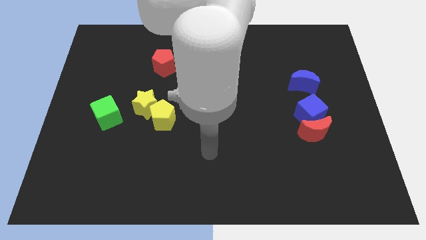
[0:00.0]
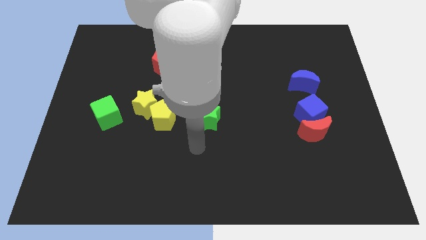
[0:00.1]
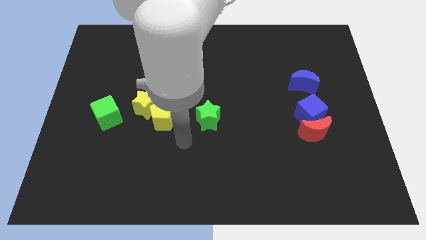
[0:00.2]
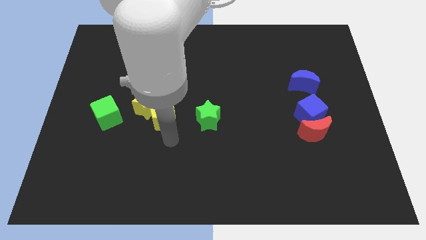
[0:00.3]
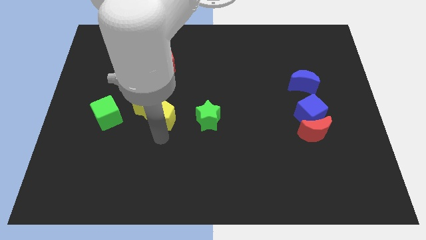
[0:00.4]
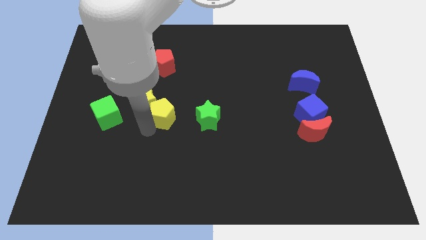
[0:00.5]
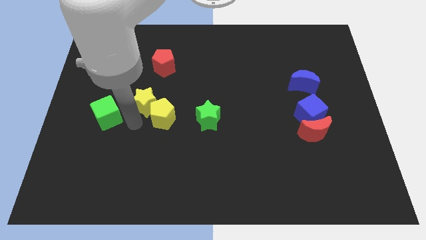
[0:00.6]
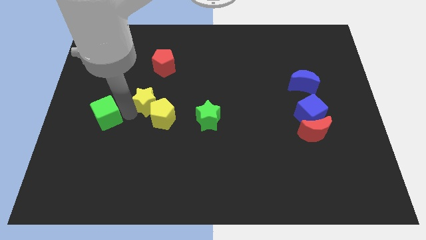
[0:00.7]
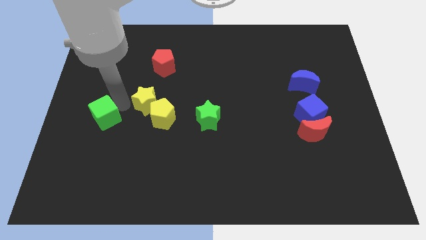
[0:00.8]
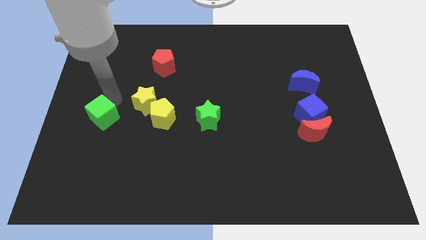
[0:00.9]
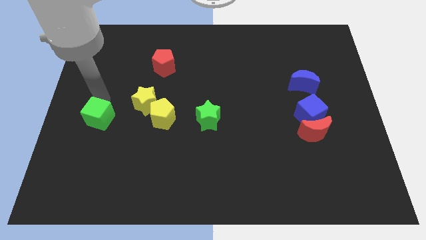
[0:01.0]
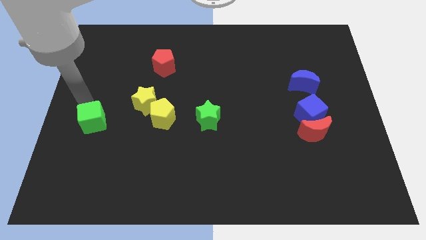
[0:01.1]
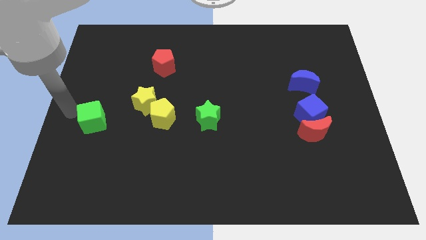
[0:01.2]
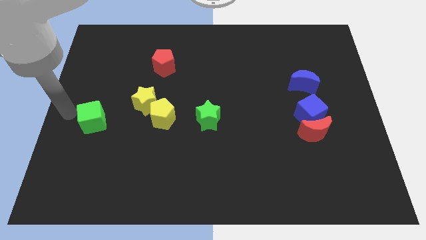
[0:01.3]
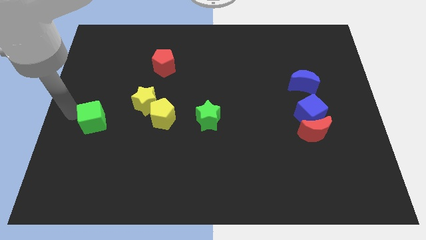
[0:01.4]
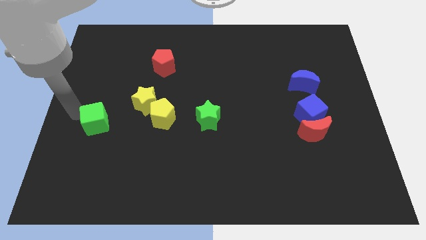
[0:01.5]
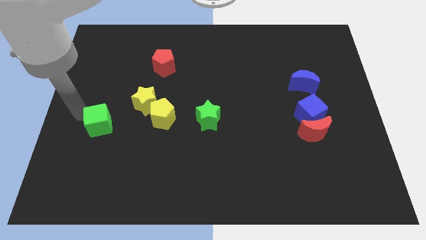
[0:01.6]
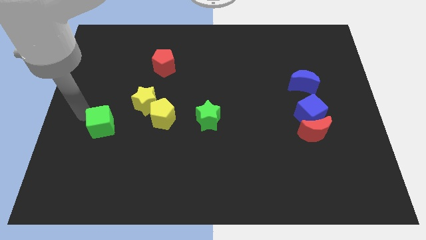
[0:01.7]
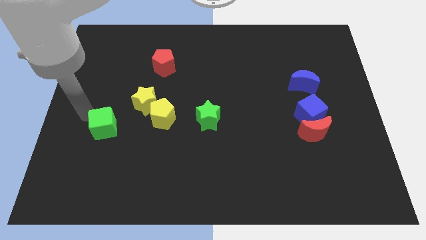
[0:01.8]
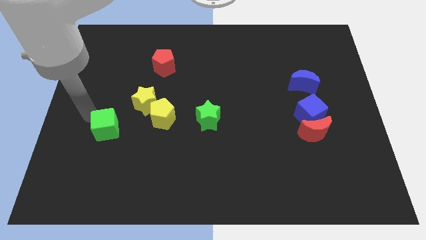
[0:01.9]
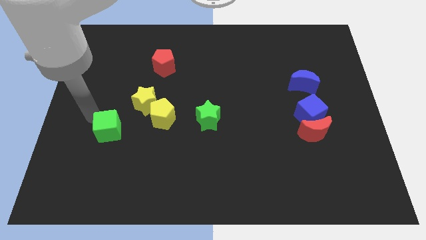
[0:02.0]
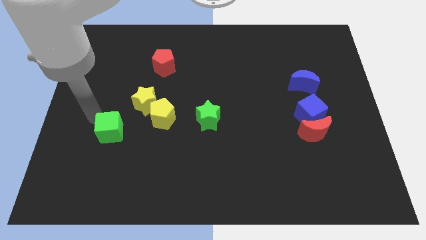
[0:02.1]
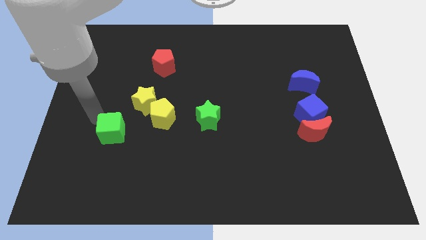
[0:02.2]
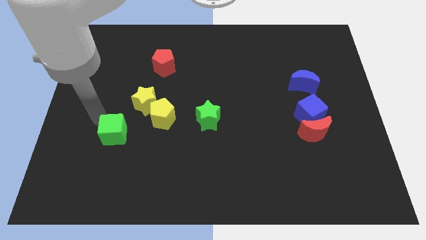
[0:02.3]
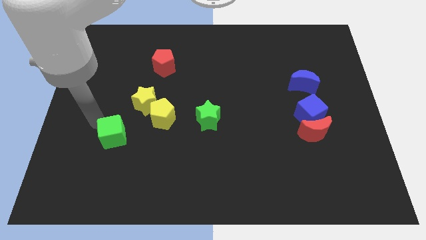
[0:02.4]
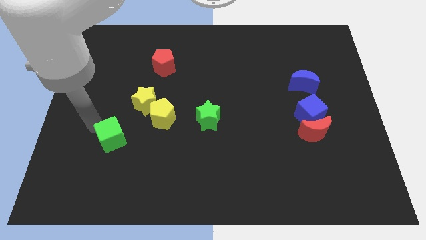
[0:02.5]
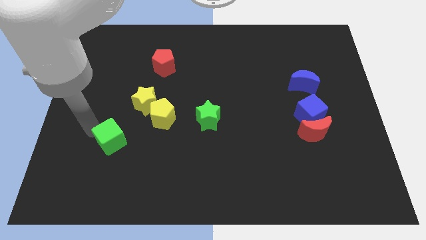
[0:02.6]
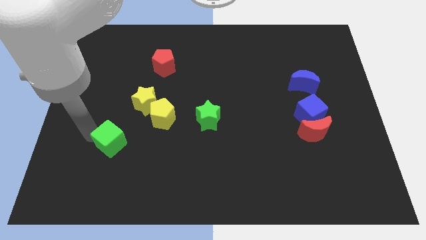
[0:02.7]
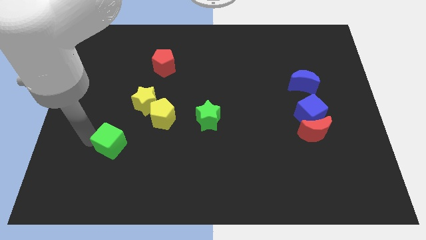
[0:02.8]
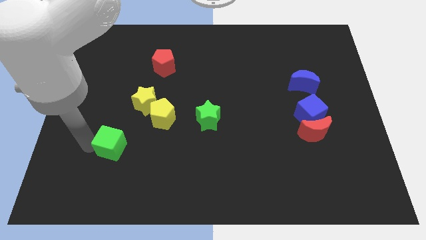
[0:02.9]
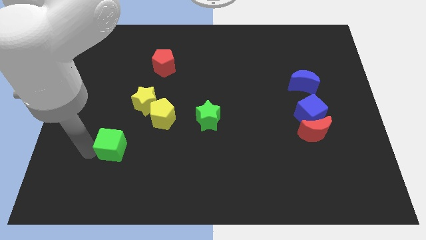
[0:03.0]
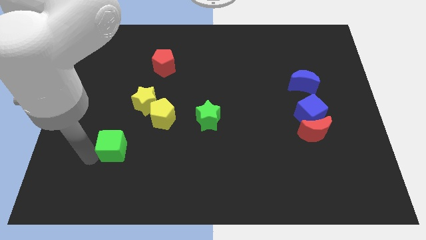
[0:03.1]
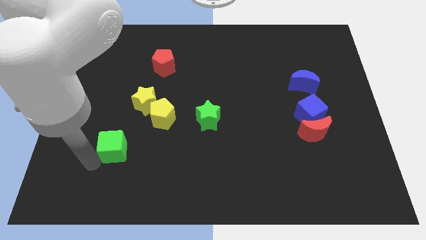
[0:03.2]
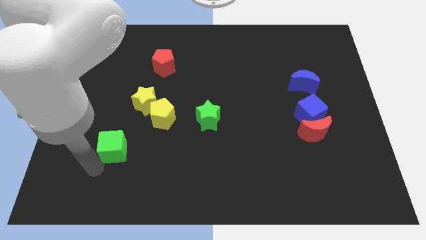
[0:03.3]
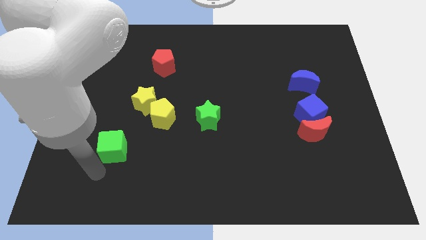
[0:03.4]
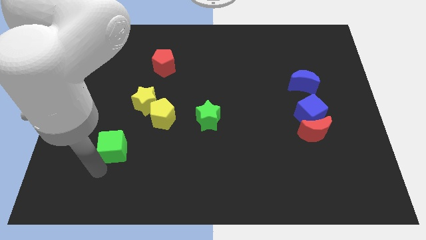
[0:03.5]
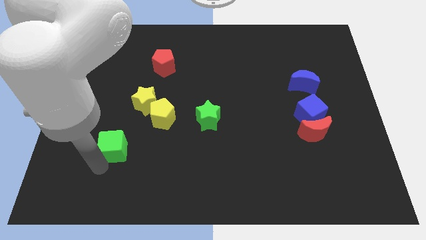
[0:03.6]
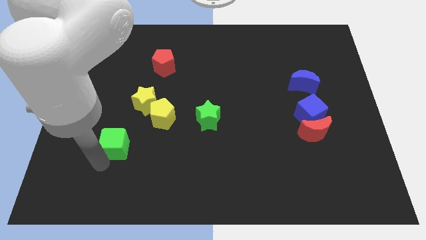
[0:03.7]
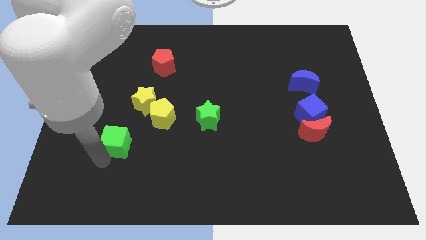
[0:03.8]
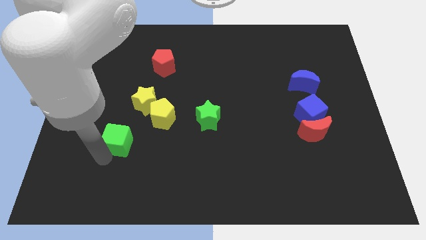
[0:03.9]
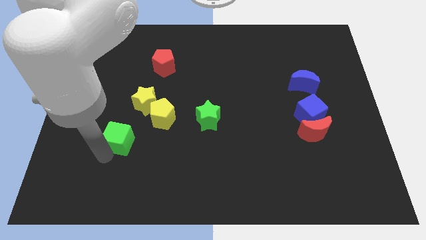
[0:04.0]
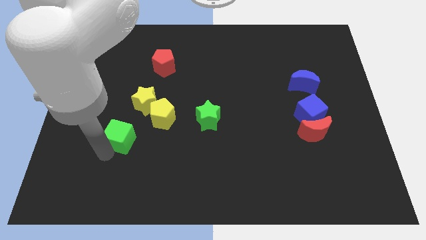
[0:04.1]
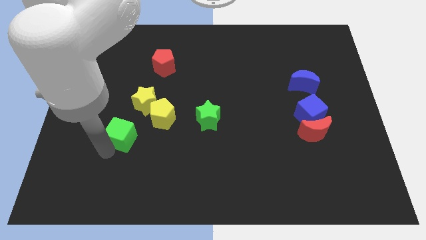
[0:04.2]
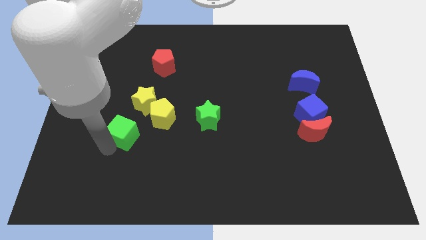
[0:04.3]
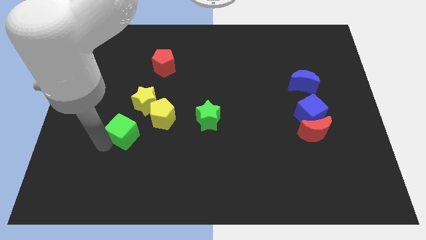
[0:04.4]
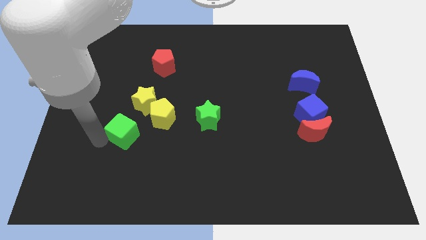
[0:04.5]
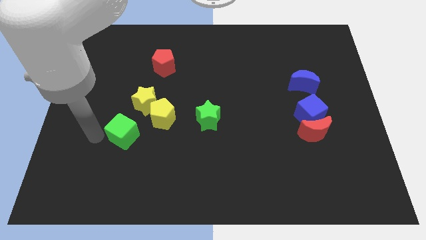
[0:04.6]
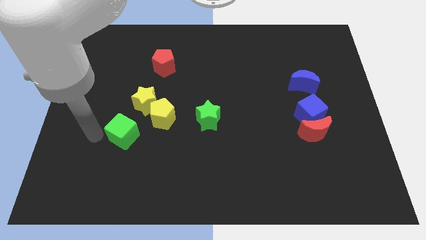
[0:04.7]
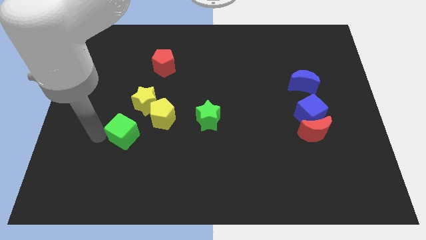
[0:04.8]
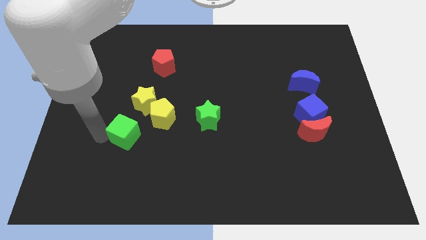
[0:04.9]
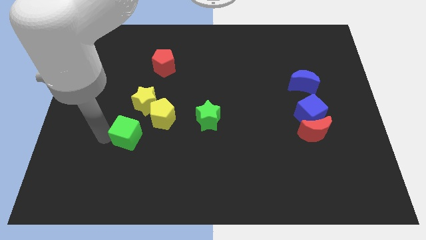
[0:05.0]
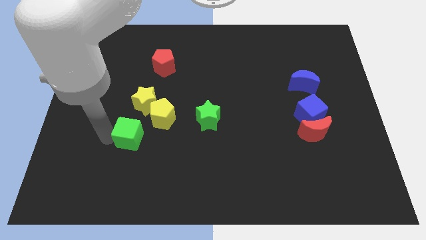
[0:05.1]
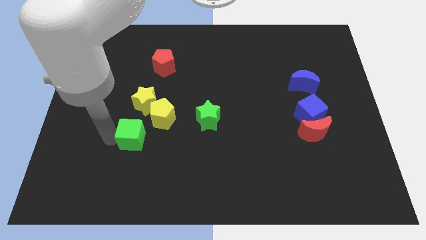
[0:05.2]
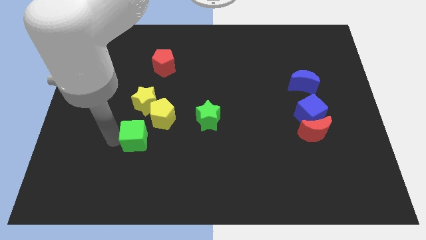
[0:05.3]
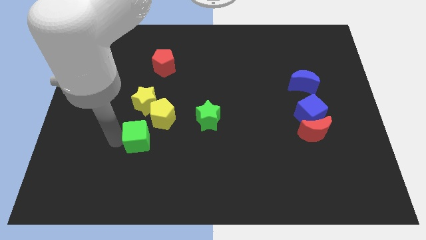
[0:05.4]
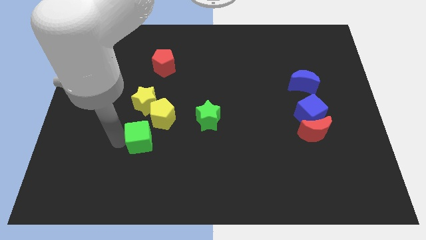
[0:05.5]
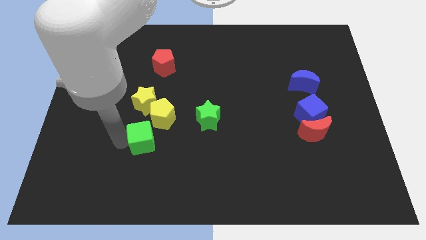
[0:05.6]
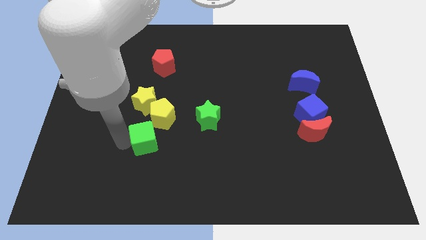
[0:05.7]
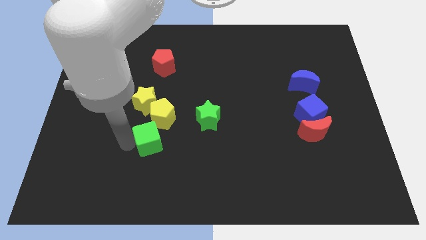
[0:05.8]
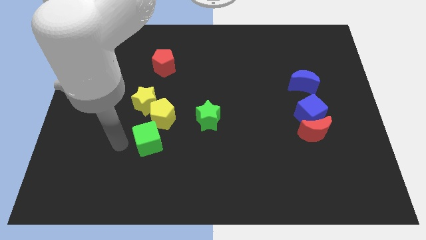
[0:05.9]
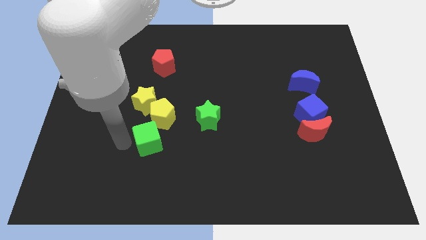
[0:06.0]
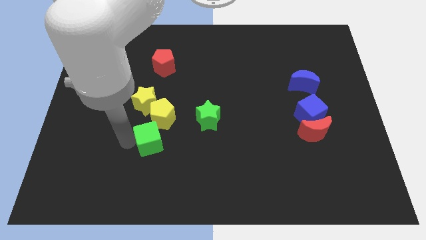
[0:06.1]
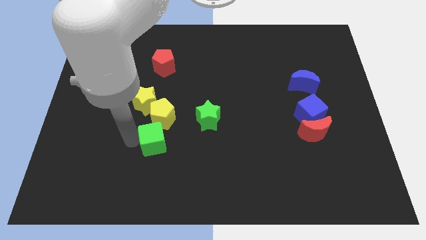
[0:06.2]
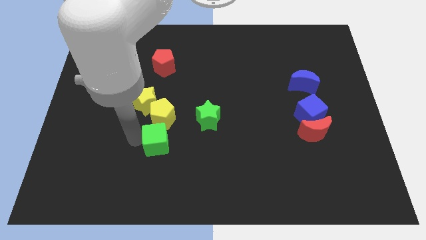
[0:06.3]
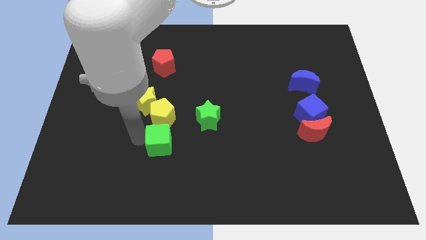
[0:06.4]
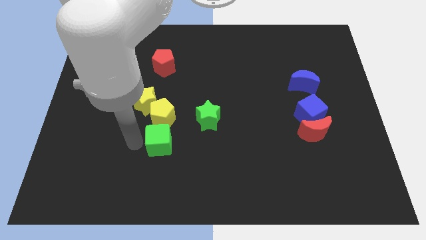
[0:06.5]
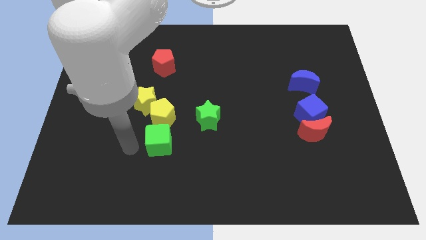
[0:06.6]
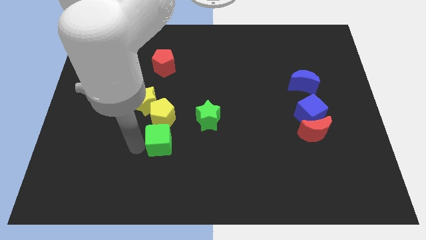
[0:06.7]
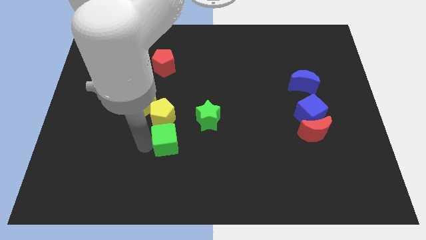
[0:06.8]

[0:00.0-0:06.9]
slide the green cube diagonally down and to the left of the green star

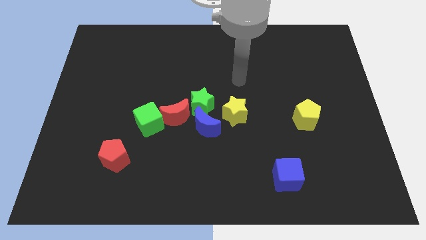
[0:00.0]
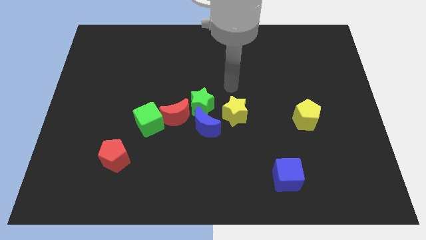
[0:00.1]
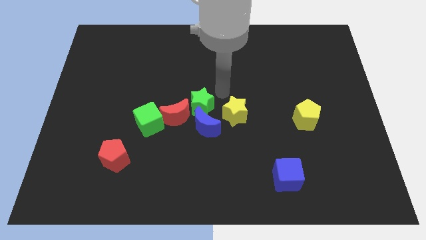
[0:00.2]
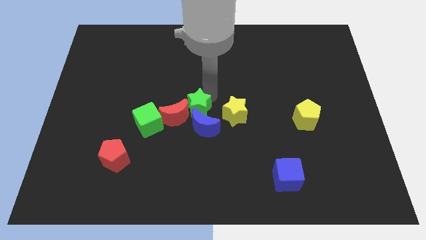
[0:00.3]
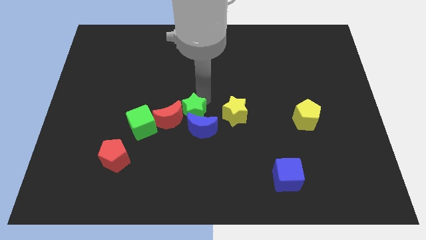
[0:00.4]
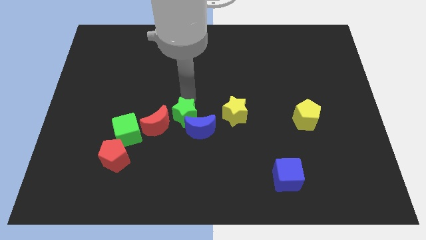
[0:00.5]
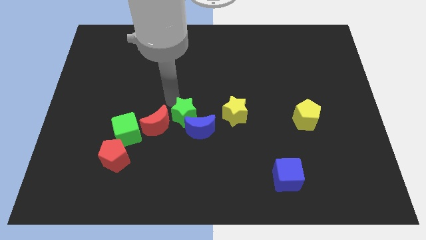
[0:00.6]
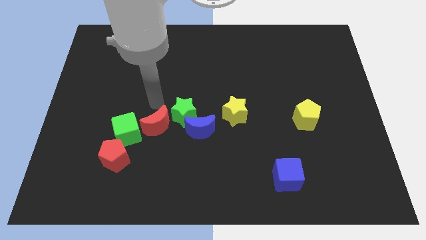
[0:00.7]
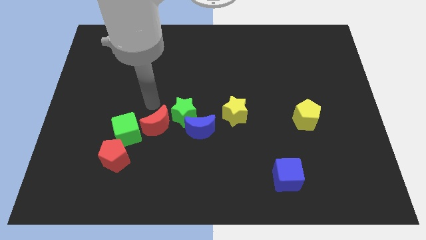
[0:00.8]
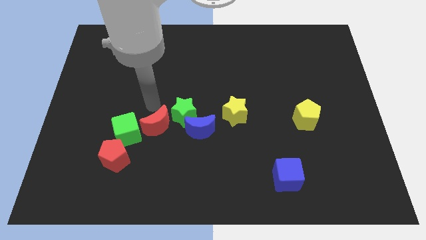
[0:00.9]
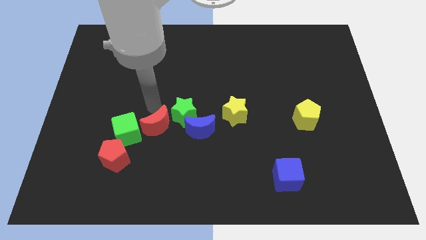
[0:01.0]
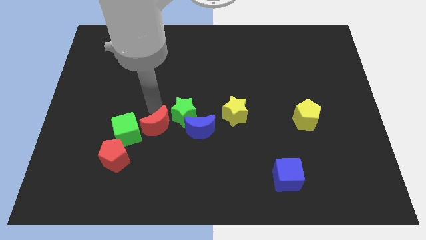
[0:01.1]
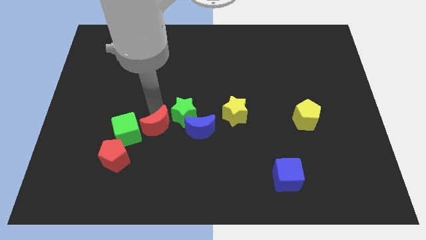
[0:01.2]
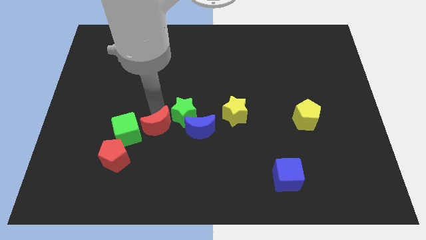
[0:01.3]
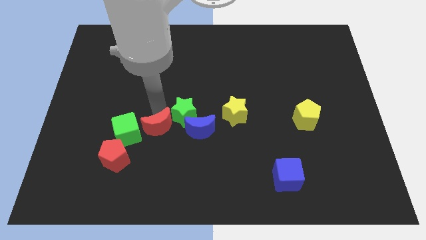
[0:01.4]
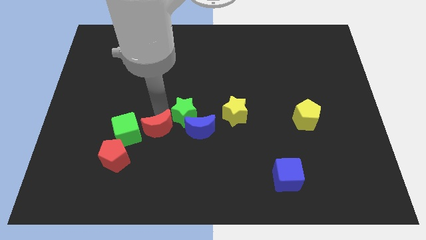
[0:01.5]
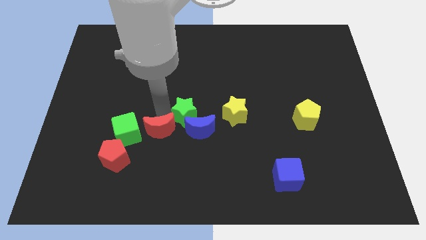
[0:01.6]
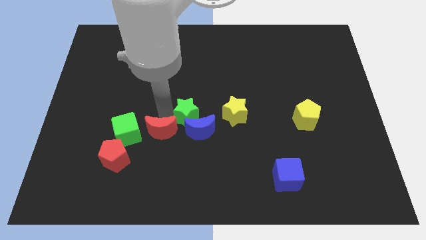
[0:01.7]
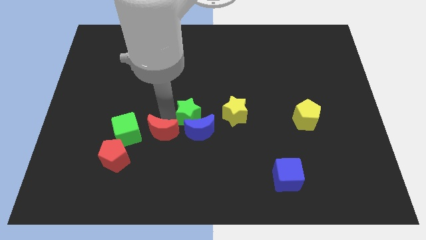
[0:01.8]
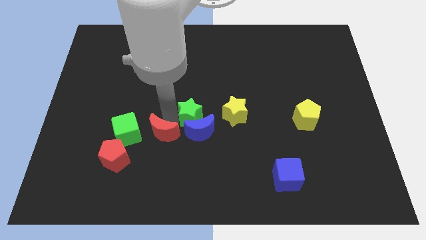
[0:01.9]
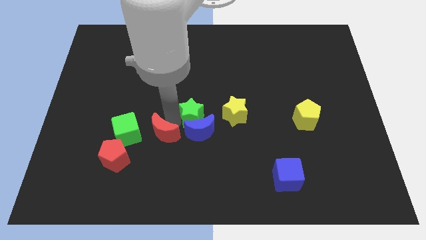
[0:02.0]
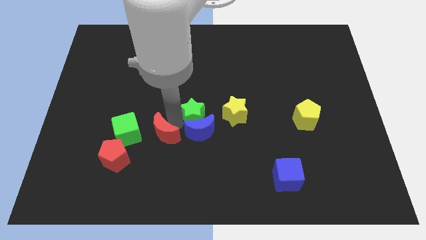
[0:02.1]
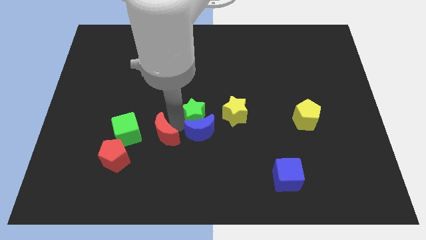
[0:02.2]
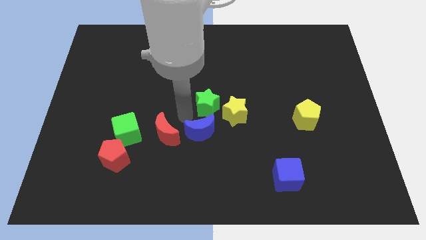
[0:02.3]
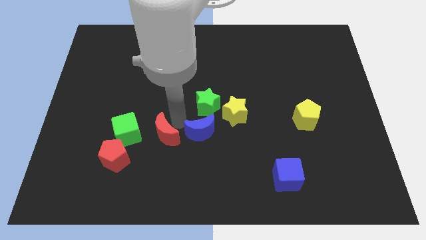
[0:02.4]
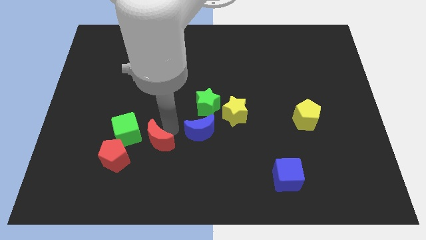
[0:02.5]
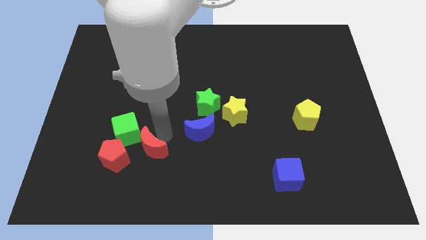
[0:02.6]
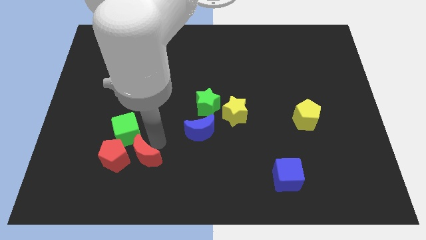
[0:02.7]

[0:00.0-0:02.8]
move the red moon to the bottom of the green cube
